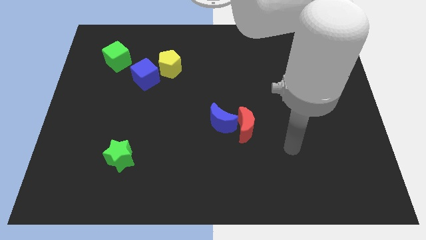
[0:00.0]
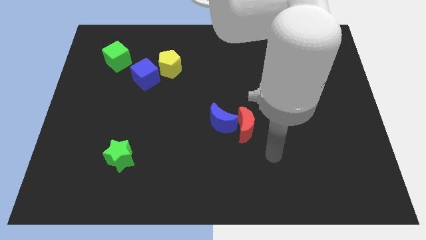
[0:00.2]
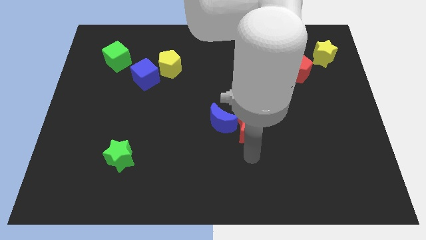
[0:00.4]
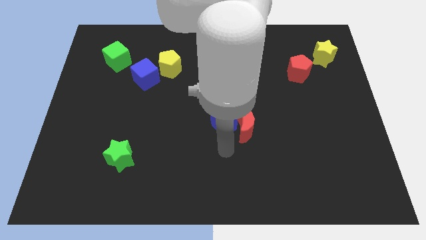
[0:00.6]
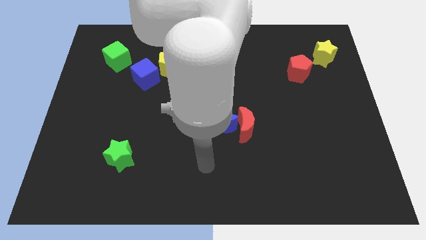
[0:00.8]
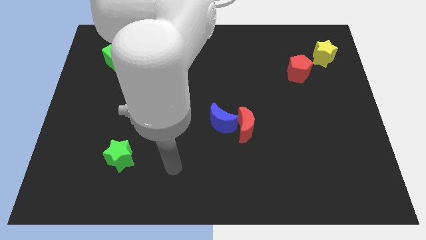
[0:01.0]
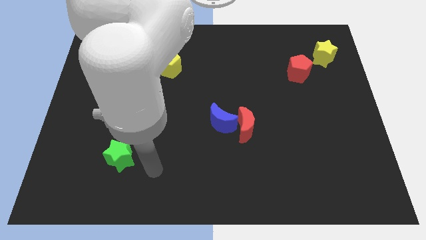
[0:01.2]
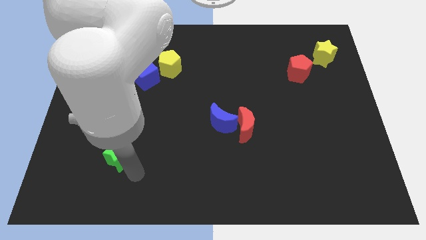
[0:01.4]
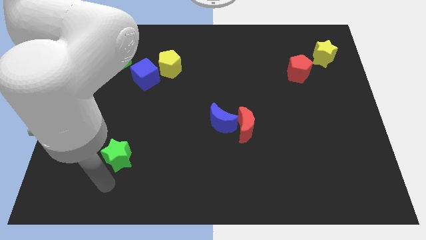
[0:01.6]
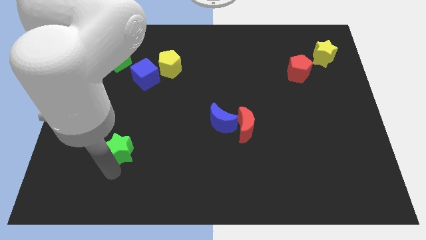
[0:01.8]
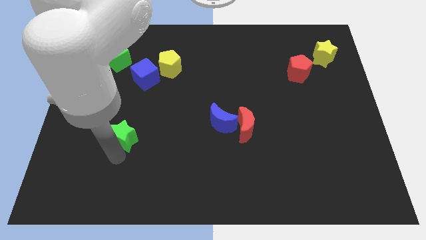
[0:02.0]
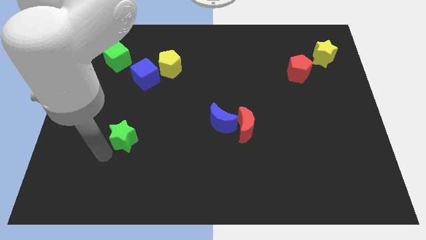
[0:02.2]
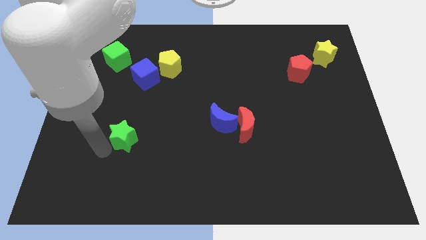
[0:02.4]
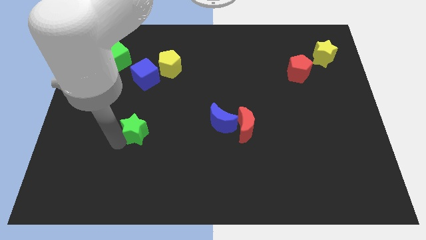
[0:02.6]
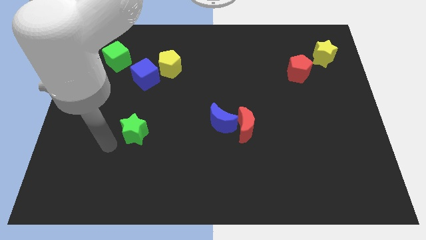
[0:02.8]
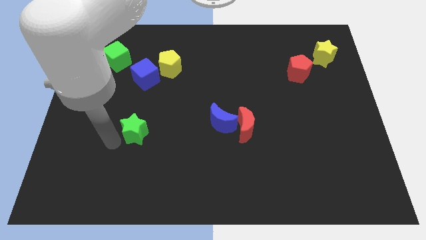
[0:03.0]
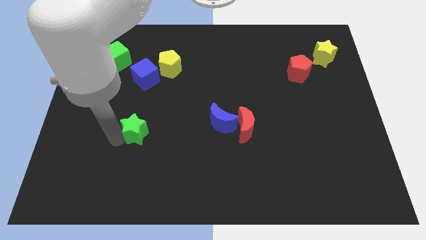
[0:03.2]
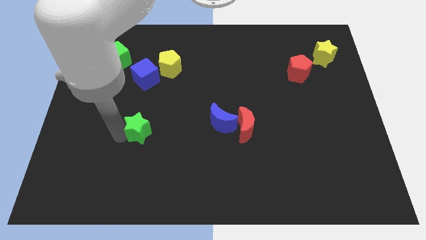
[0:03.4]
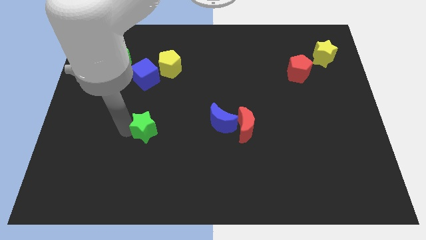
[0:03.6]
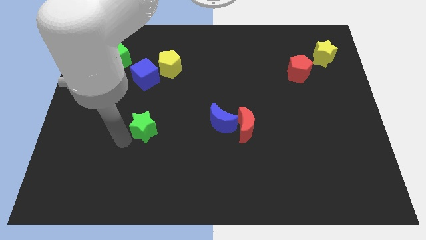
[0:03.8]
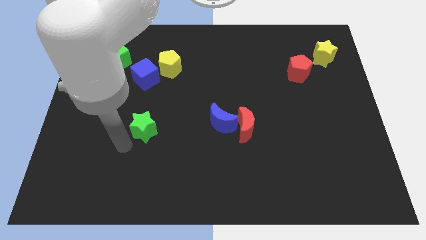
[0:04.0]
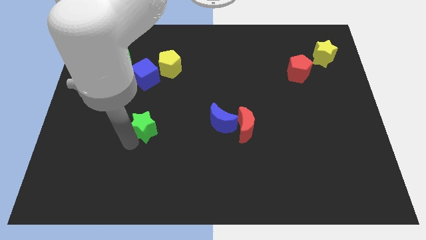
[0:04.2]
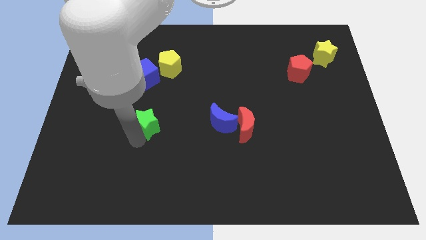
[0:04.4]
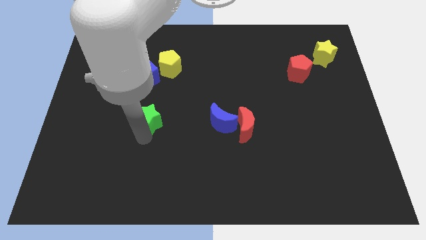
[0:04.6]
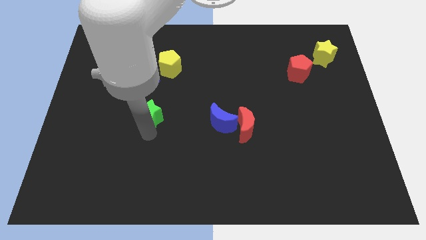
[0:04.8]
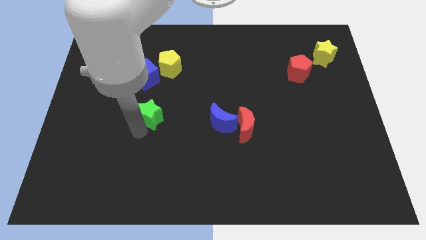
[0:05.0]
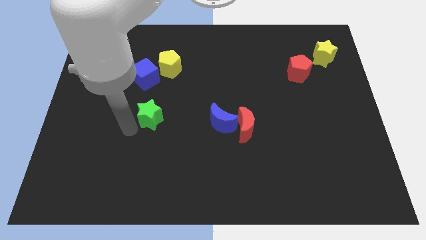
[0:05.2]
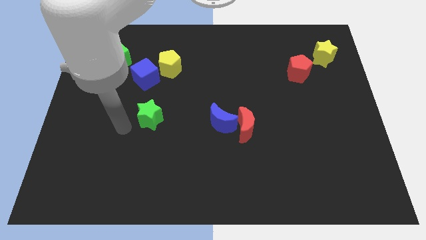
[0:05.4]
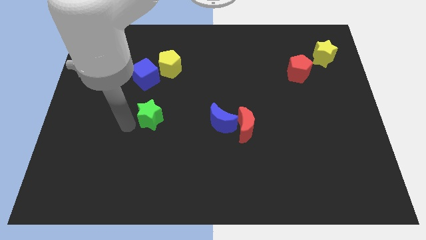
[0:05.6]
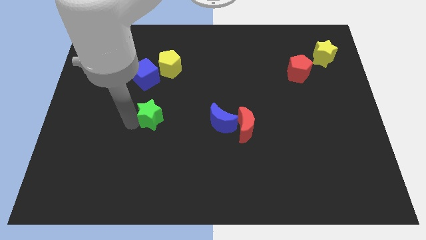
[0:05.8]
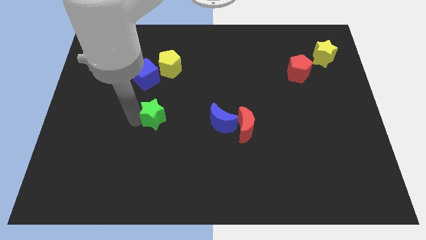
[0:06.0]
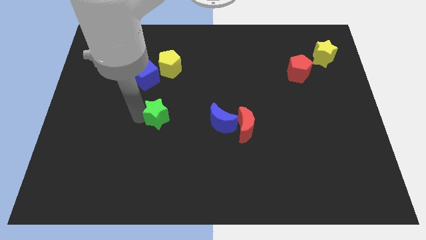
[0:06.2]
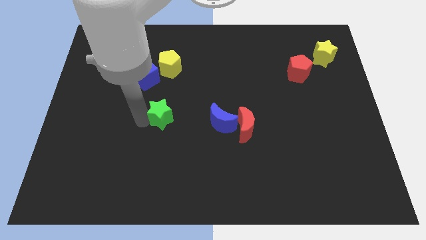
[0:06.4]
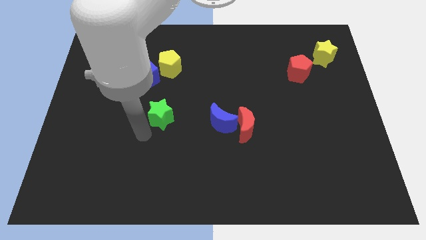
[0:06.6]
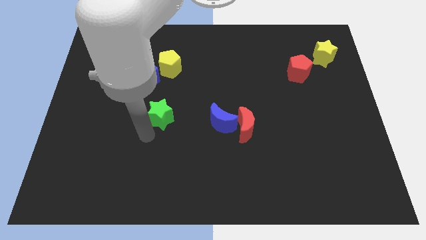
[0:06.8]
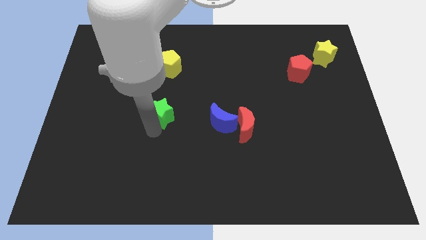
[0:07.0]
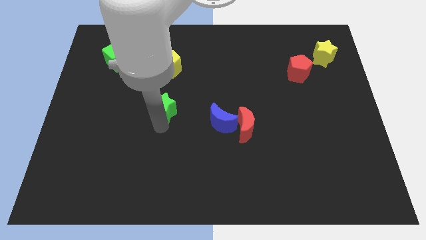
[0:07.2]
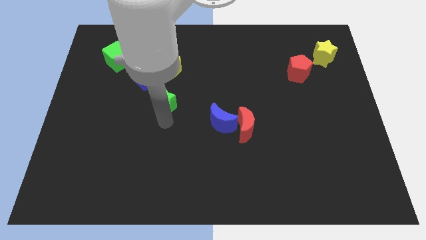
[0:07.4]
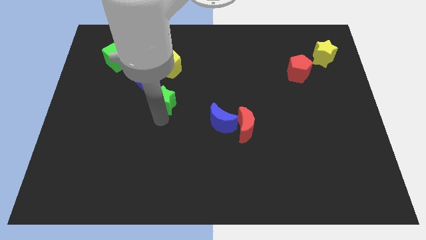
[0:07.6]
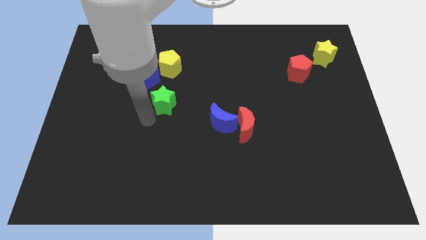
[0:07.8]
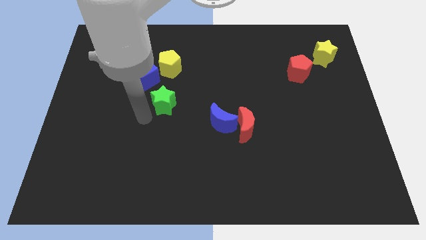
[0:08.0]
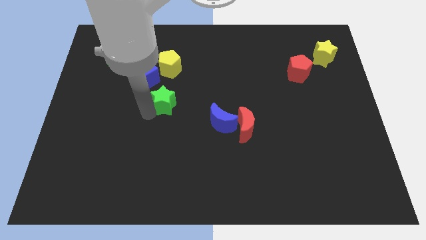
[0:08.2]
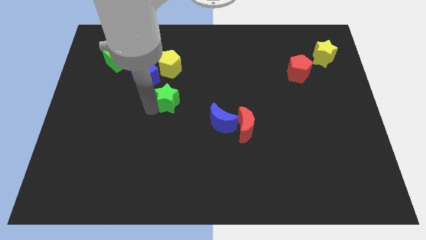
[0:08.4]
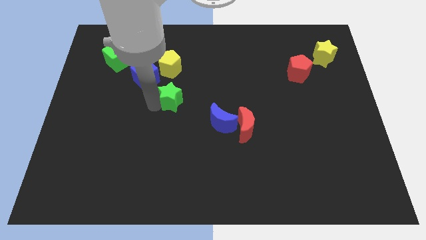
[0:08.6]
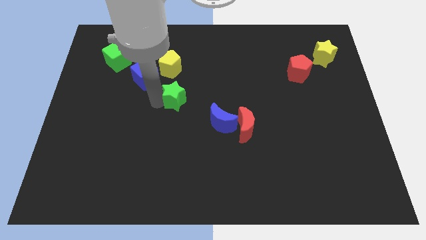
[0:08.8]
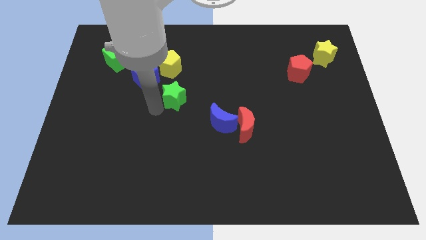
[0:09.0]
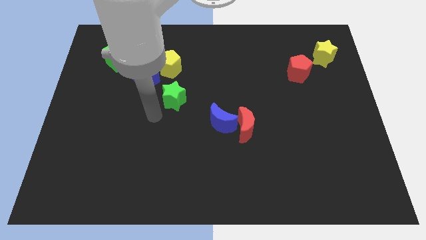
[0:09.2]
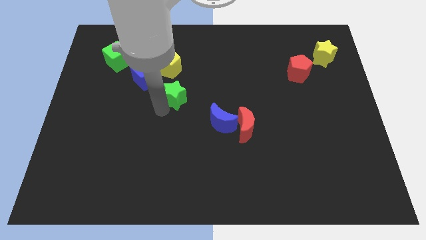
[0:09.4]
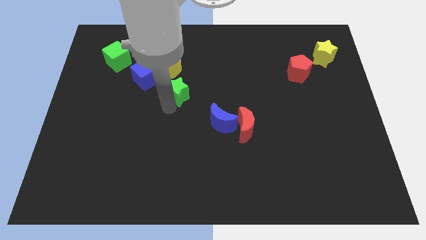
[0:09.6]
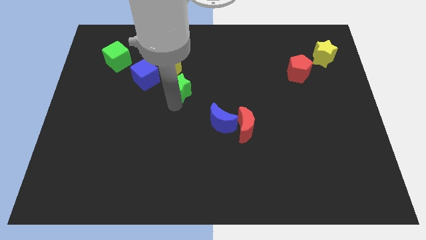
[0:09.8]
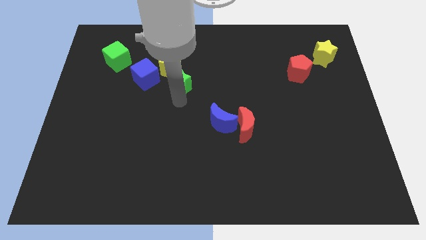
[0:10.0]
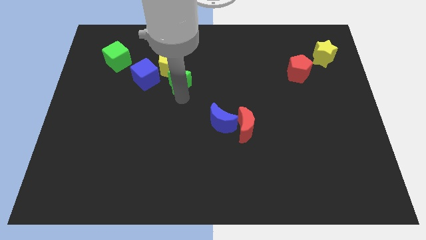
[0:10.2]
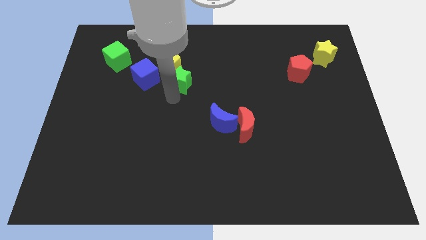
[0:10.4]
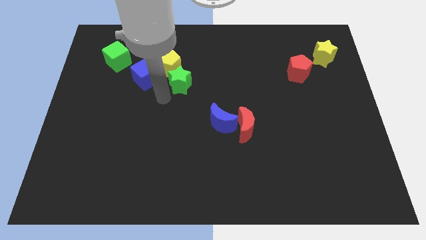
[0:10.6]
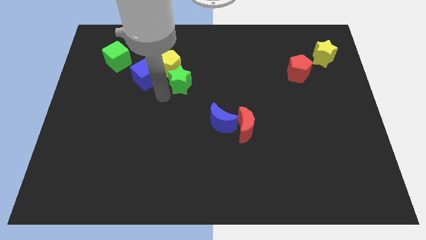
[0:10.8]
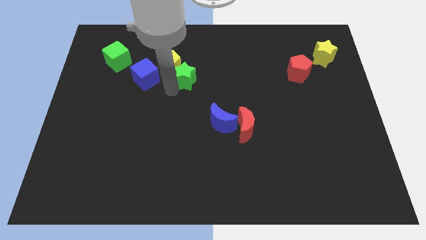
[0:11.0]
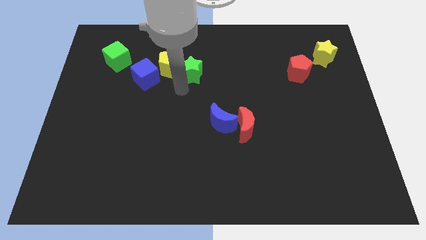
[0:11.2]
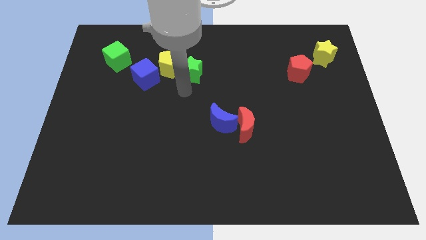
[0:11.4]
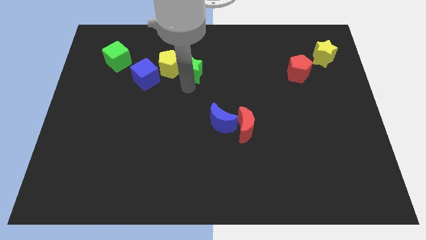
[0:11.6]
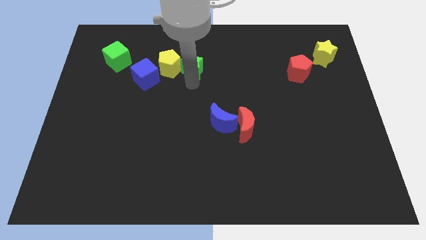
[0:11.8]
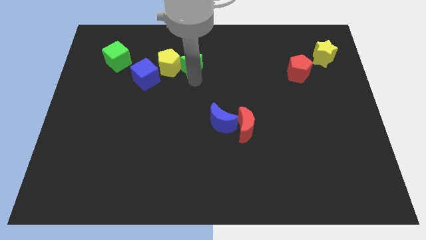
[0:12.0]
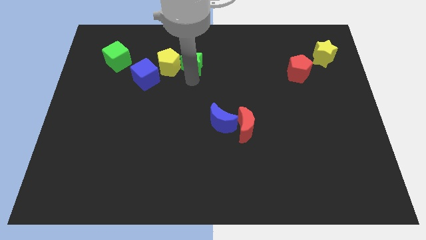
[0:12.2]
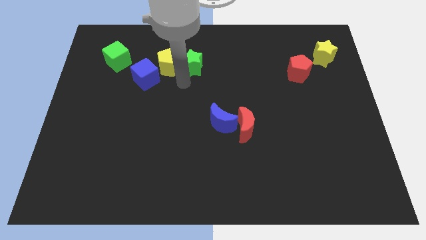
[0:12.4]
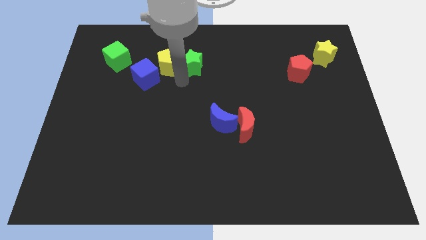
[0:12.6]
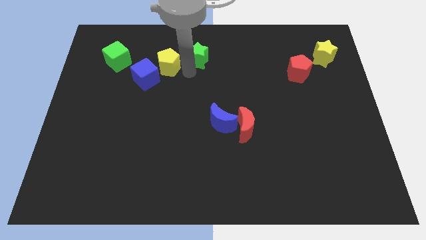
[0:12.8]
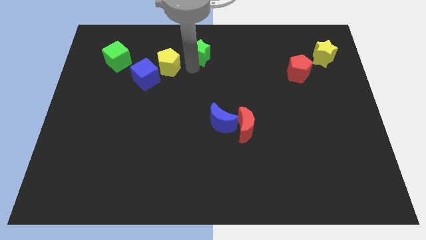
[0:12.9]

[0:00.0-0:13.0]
slide the green star to the towards your base
